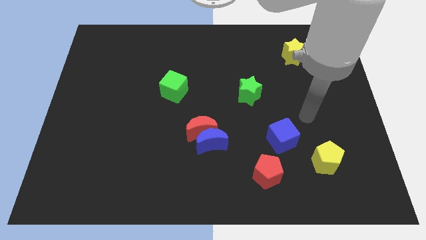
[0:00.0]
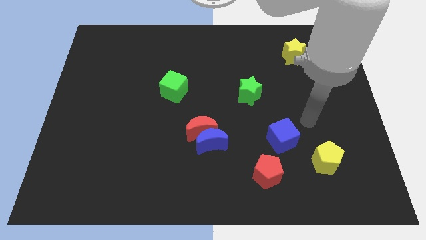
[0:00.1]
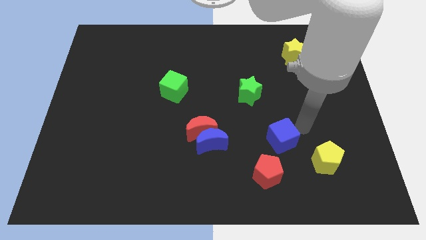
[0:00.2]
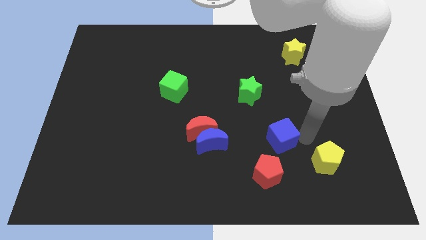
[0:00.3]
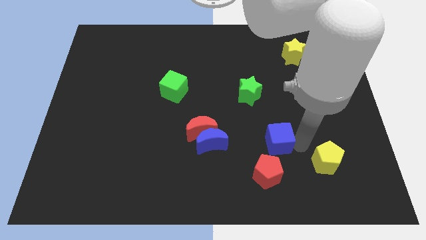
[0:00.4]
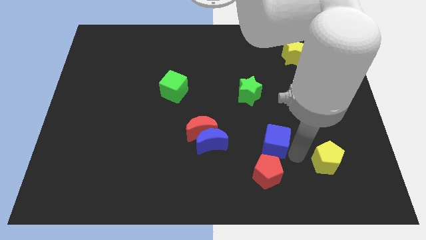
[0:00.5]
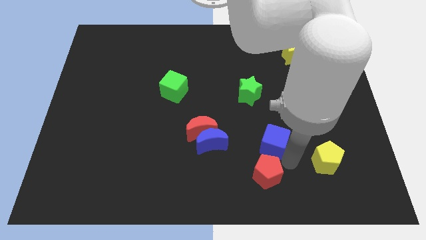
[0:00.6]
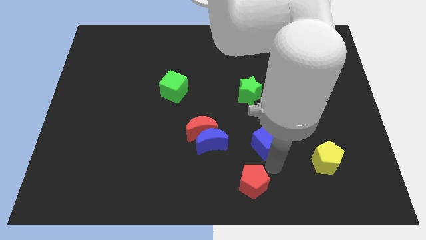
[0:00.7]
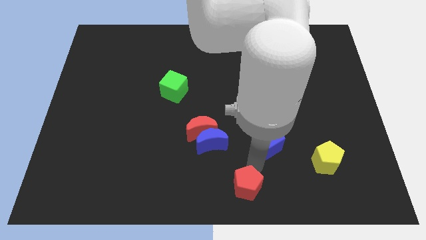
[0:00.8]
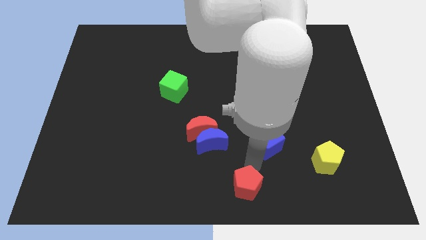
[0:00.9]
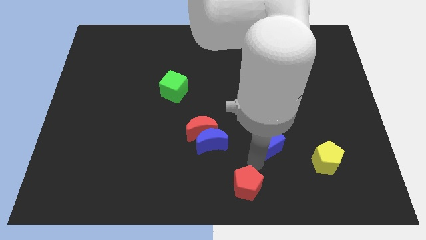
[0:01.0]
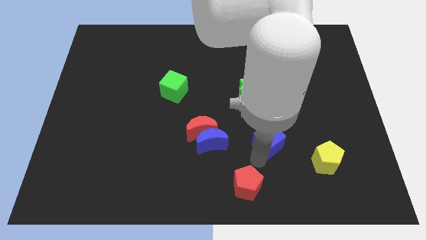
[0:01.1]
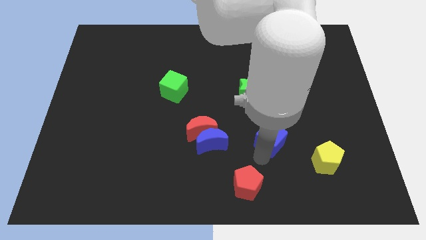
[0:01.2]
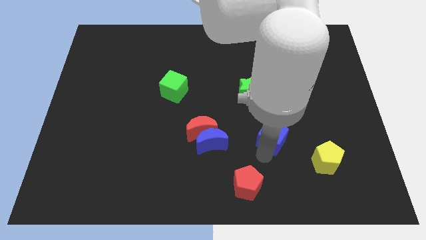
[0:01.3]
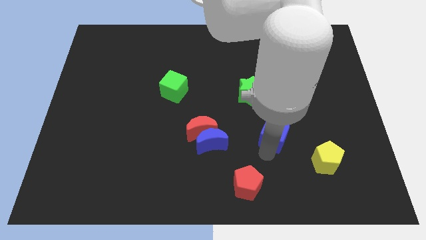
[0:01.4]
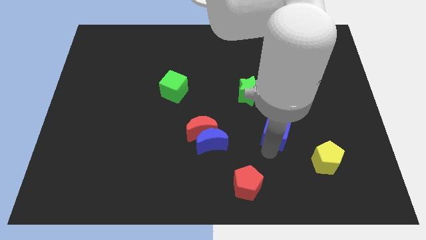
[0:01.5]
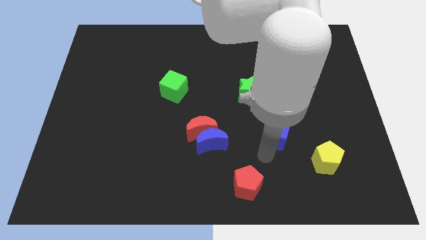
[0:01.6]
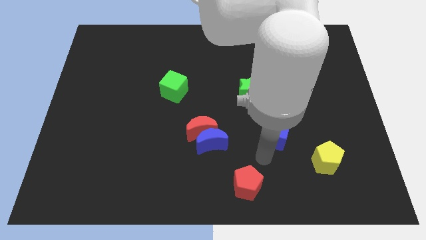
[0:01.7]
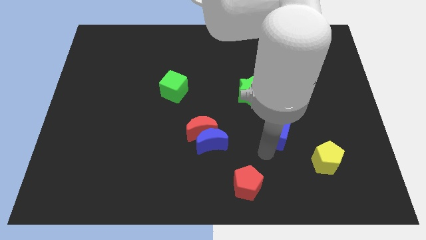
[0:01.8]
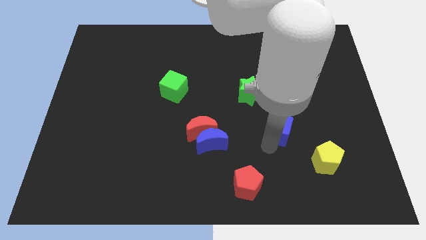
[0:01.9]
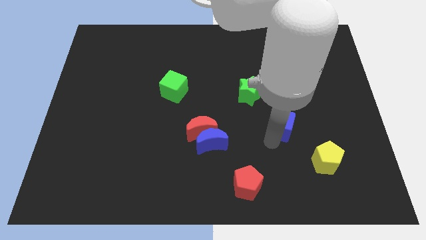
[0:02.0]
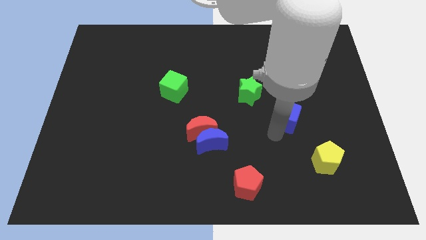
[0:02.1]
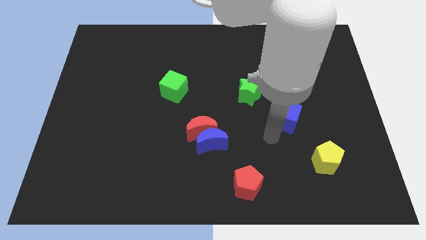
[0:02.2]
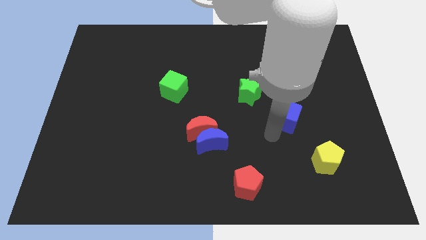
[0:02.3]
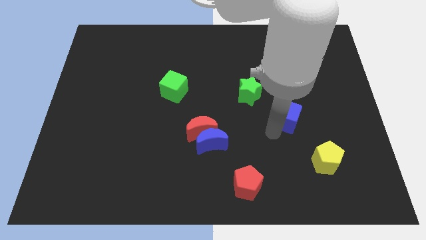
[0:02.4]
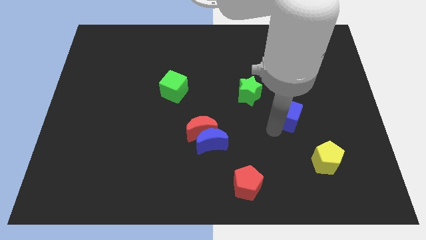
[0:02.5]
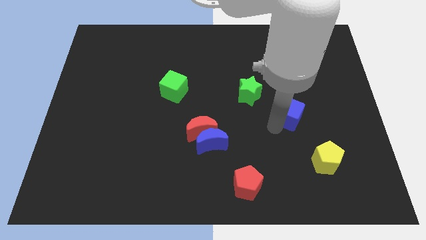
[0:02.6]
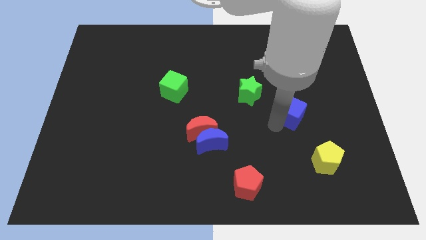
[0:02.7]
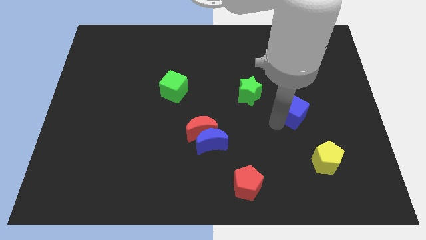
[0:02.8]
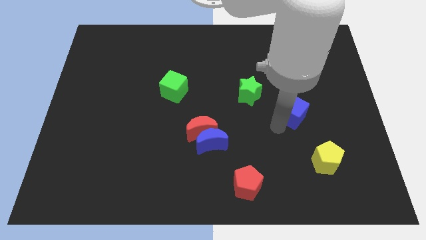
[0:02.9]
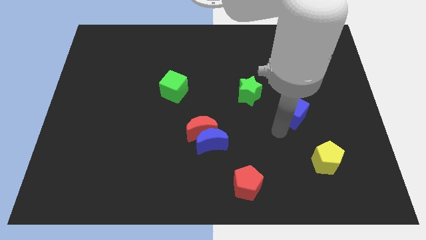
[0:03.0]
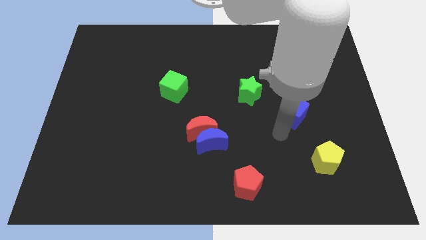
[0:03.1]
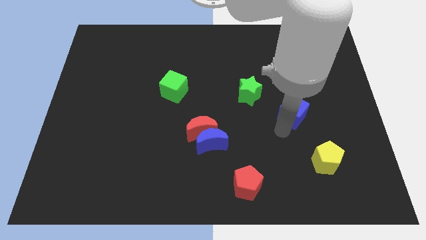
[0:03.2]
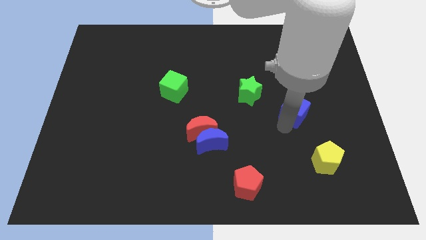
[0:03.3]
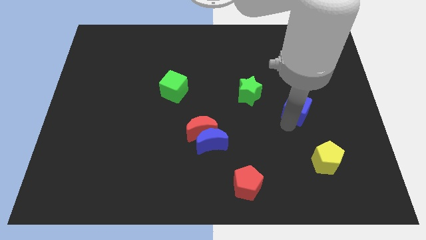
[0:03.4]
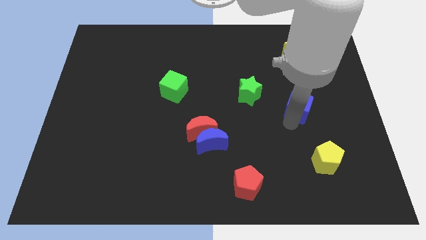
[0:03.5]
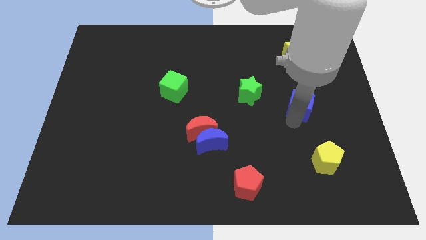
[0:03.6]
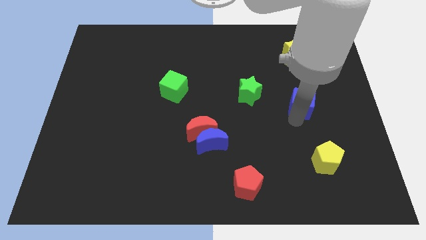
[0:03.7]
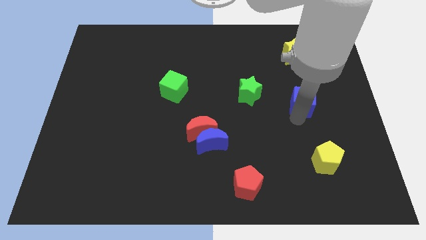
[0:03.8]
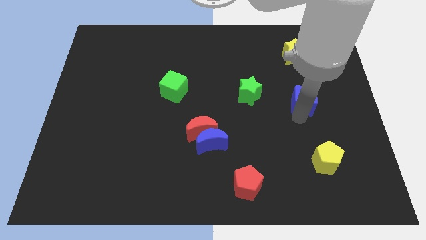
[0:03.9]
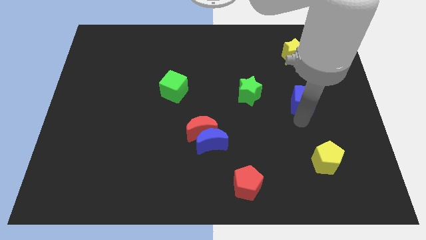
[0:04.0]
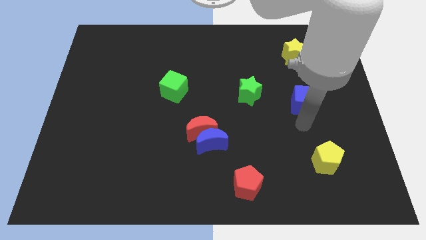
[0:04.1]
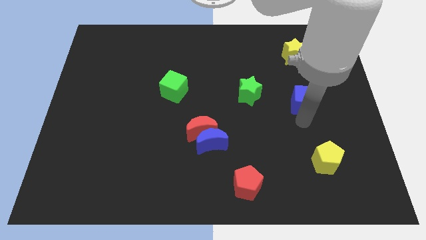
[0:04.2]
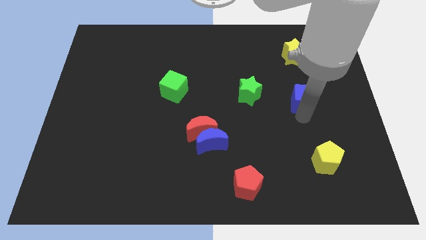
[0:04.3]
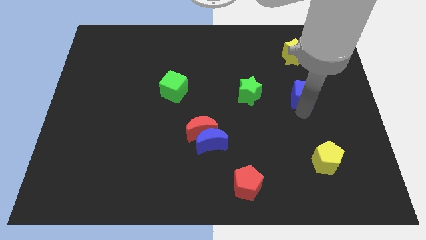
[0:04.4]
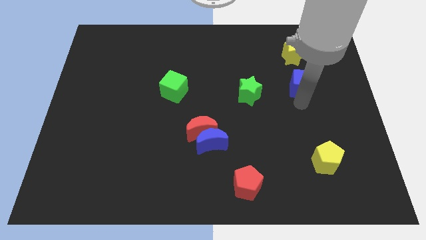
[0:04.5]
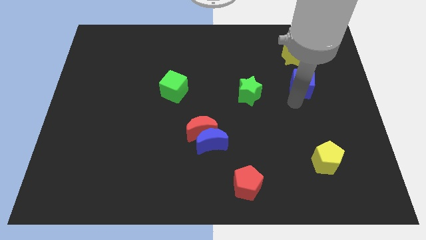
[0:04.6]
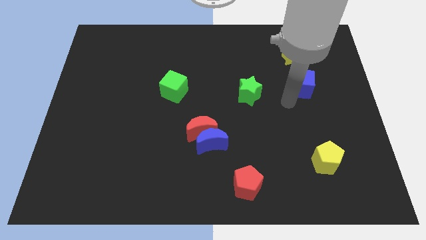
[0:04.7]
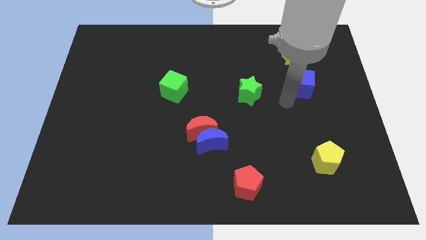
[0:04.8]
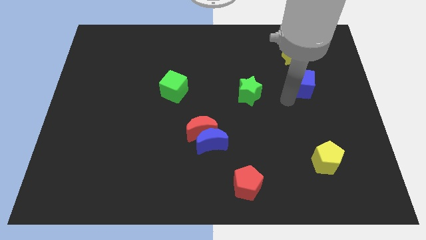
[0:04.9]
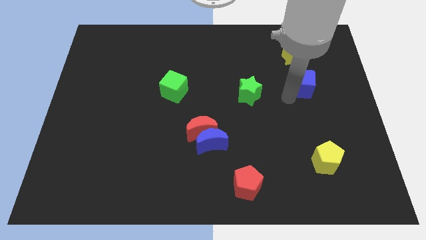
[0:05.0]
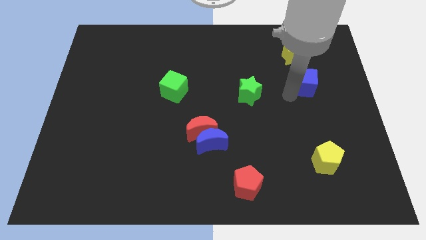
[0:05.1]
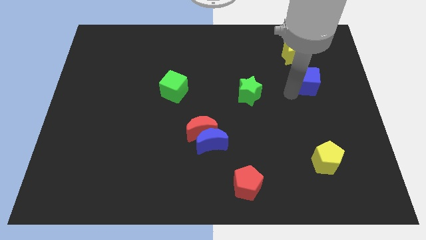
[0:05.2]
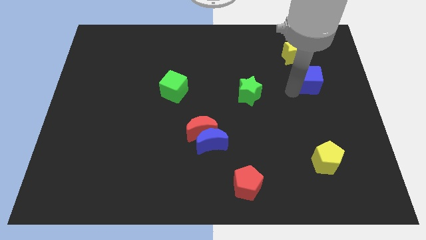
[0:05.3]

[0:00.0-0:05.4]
put the blue cube diagonally down and to the right of the yellow star

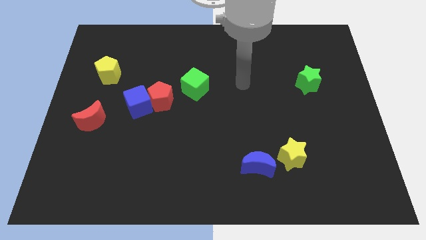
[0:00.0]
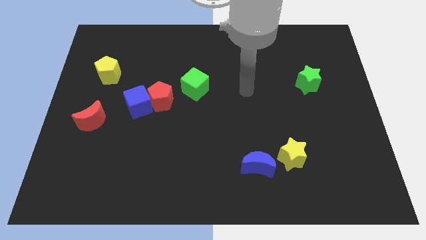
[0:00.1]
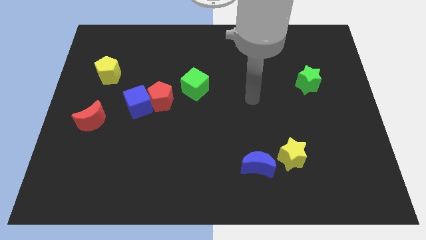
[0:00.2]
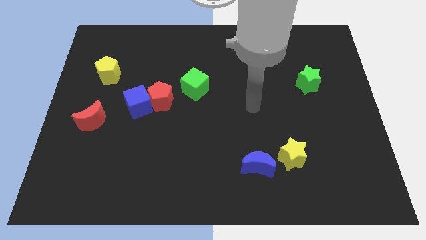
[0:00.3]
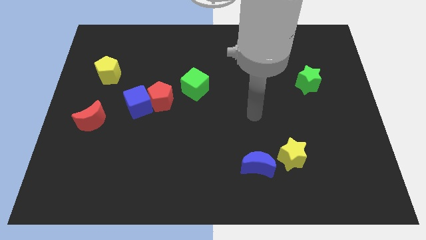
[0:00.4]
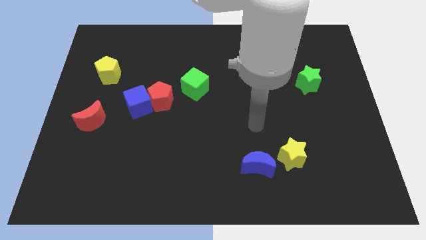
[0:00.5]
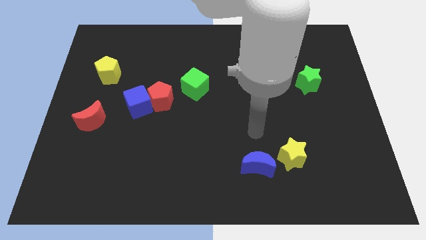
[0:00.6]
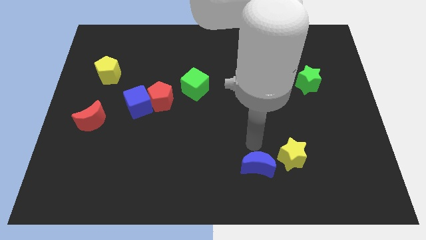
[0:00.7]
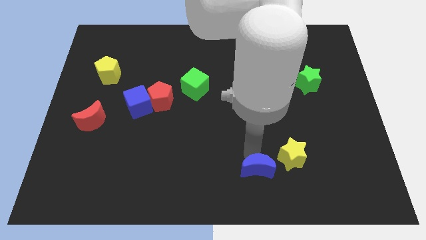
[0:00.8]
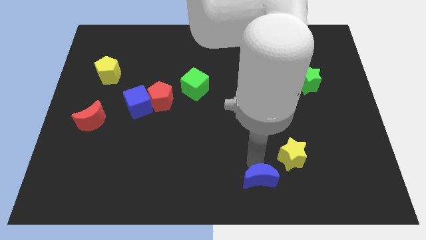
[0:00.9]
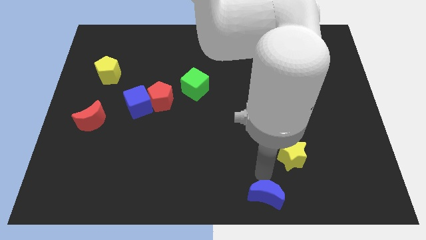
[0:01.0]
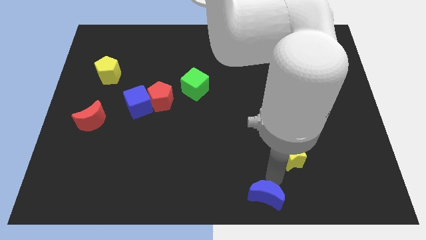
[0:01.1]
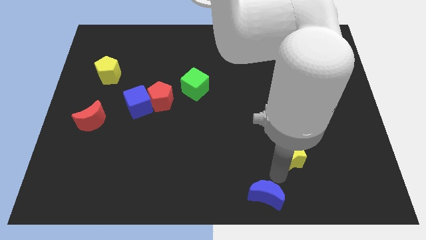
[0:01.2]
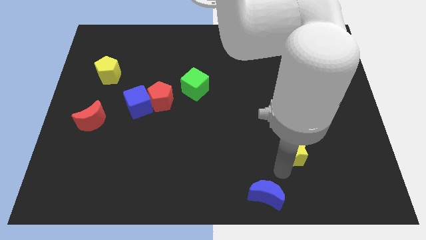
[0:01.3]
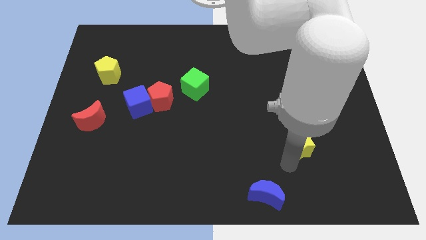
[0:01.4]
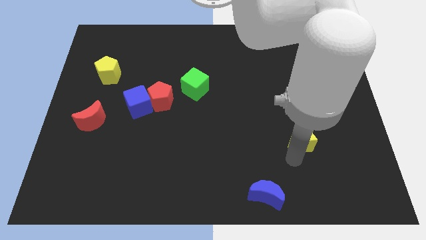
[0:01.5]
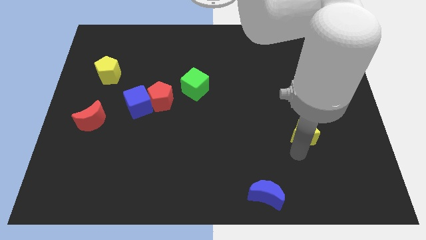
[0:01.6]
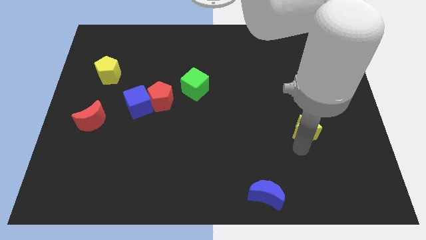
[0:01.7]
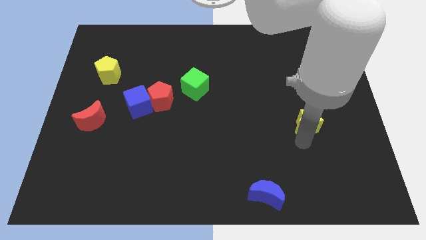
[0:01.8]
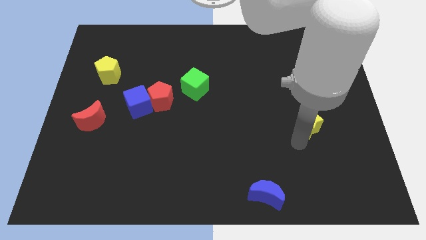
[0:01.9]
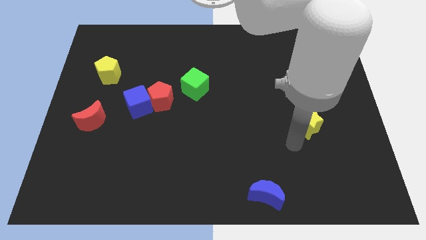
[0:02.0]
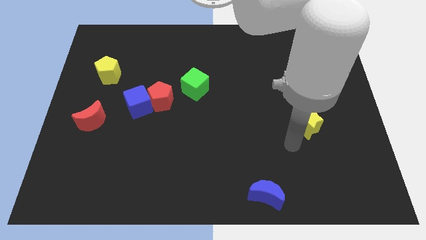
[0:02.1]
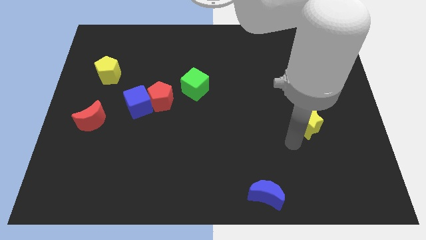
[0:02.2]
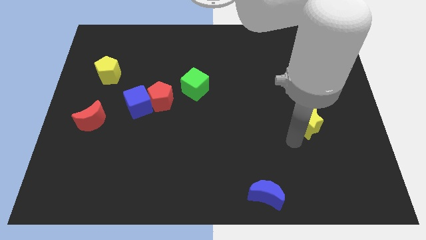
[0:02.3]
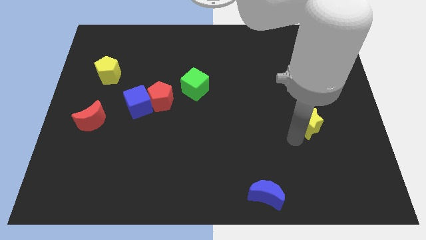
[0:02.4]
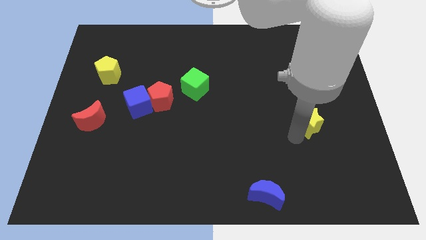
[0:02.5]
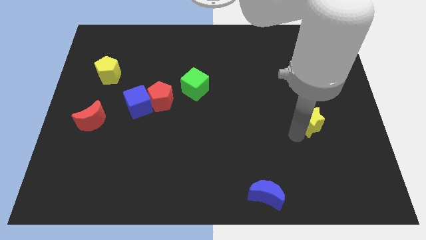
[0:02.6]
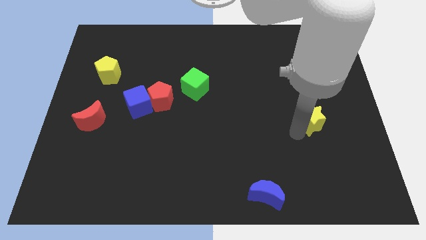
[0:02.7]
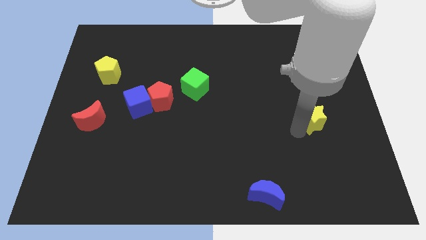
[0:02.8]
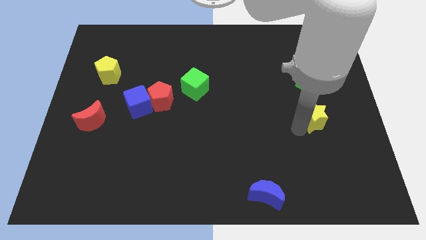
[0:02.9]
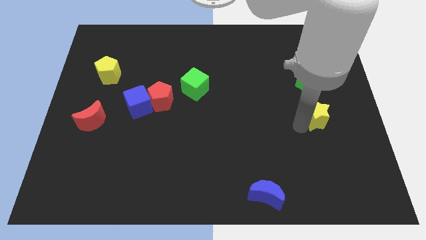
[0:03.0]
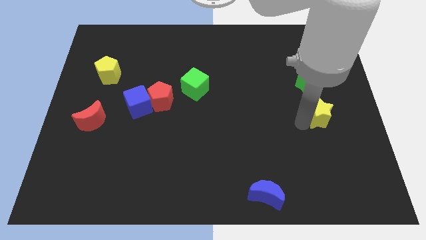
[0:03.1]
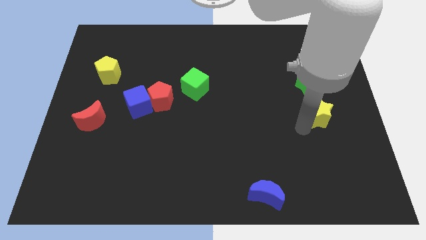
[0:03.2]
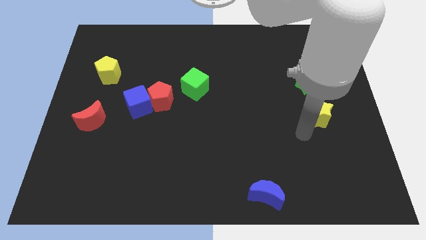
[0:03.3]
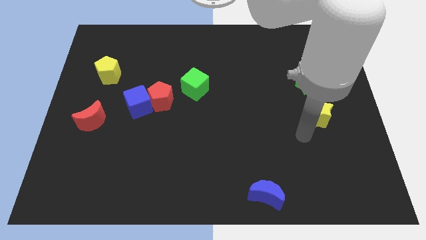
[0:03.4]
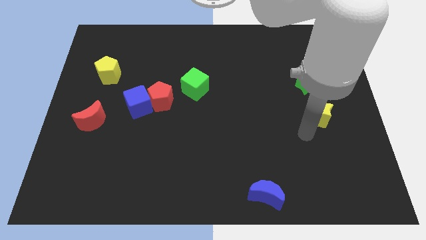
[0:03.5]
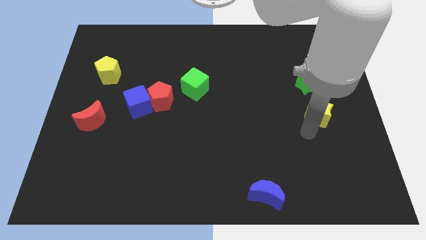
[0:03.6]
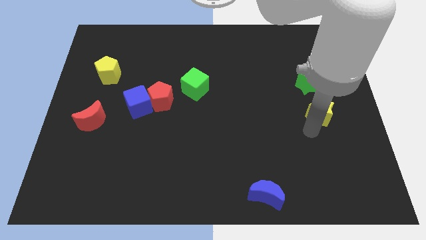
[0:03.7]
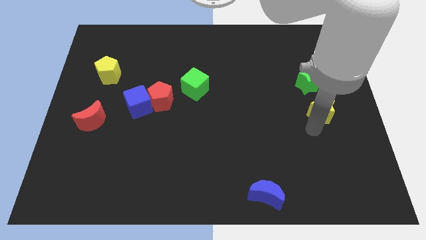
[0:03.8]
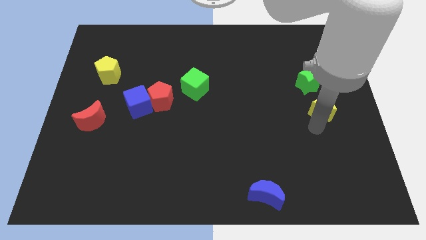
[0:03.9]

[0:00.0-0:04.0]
move the yellow star to the bottom right side of the green star
